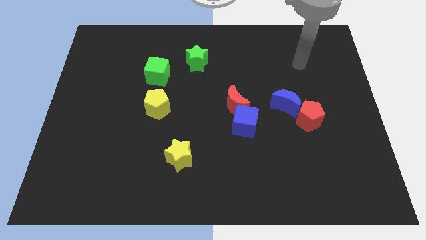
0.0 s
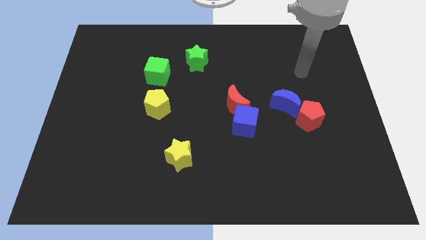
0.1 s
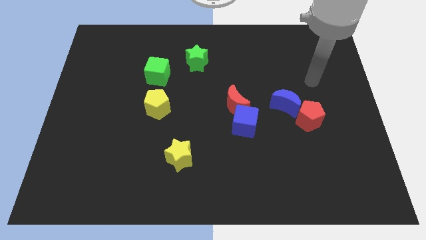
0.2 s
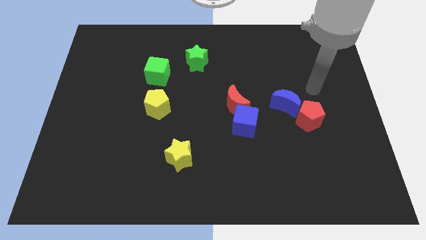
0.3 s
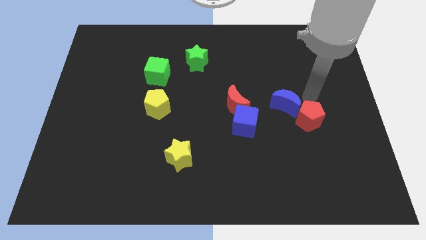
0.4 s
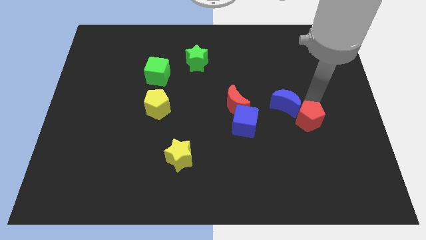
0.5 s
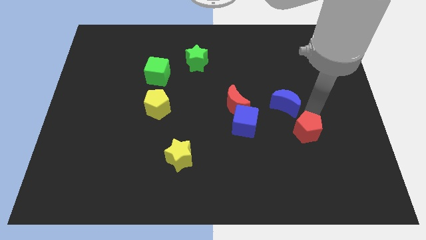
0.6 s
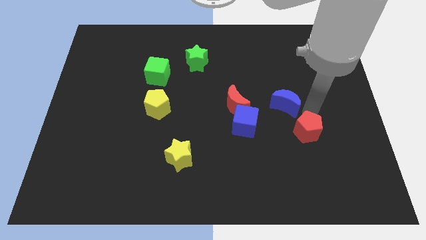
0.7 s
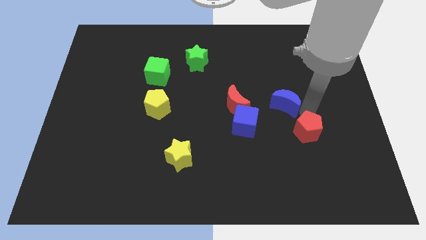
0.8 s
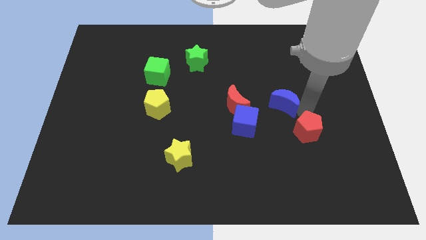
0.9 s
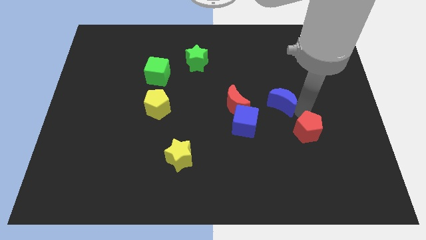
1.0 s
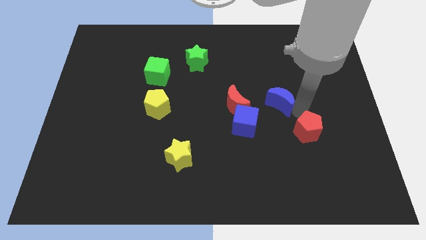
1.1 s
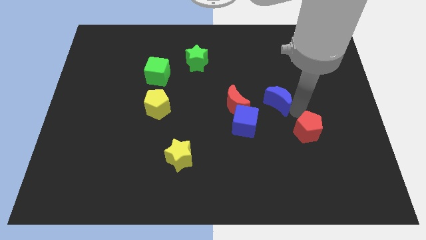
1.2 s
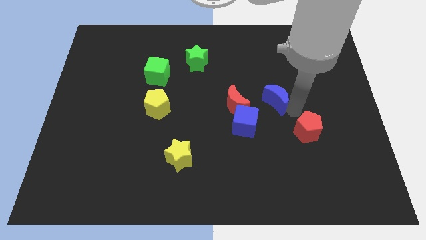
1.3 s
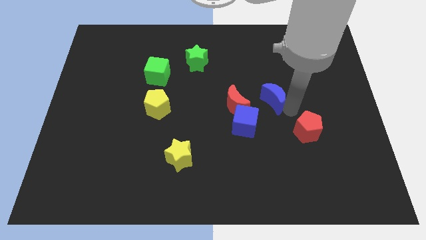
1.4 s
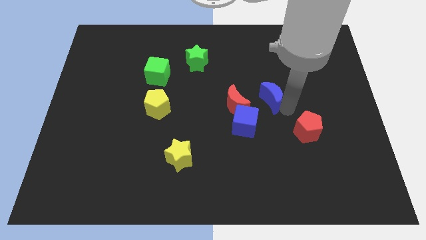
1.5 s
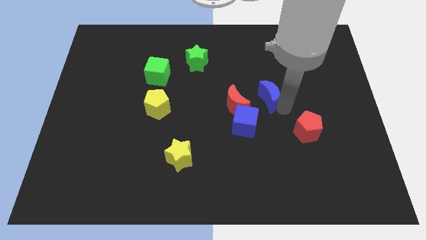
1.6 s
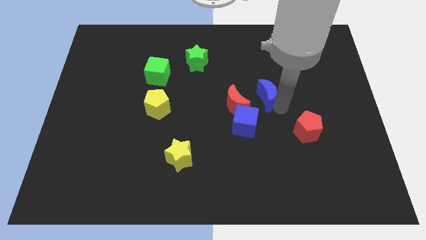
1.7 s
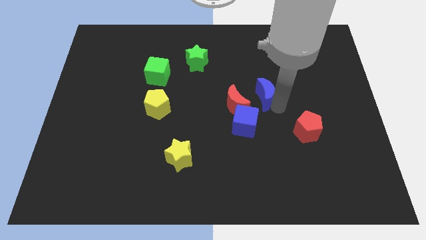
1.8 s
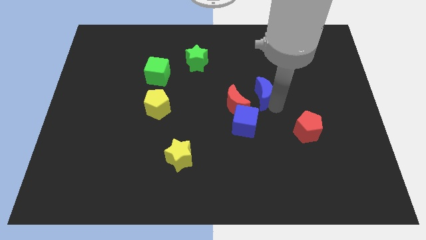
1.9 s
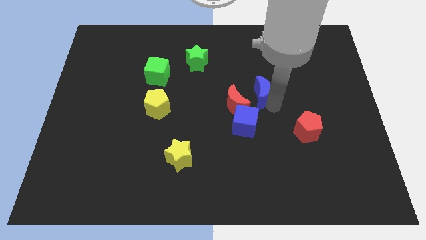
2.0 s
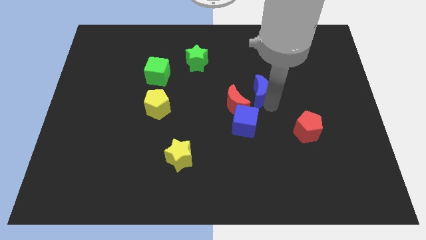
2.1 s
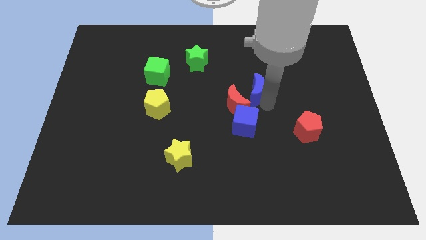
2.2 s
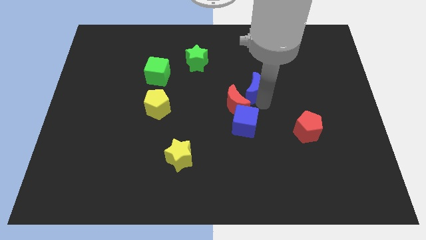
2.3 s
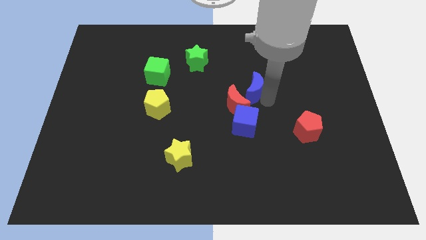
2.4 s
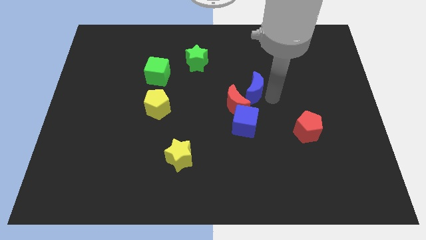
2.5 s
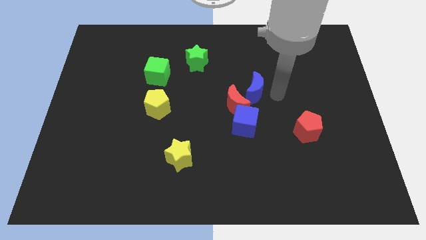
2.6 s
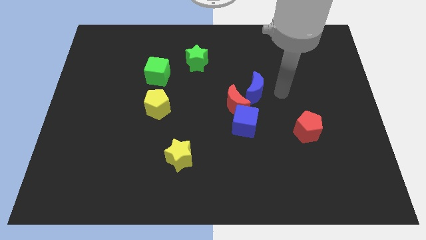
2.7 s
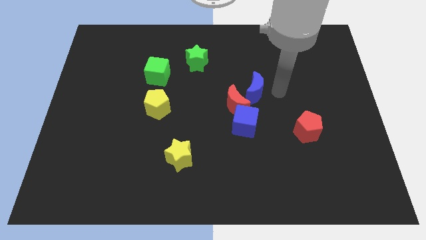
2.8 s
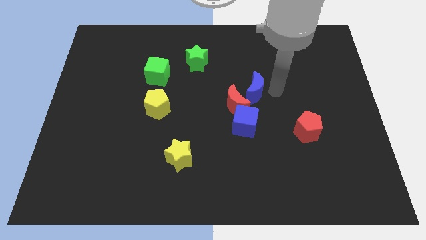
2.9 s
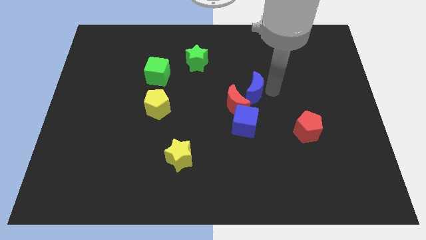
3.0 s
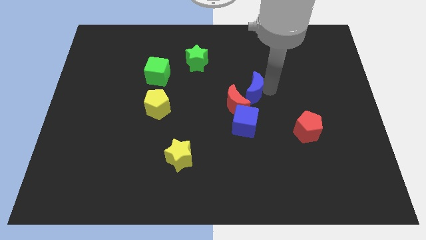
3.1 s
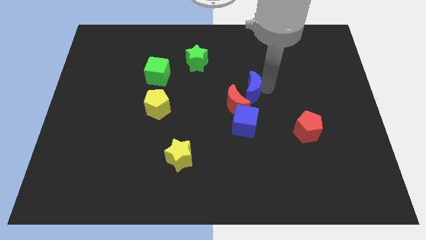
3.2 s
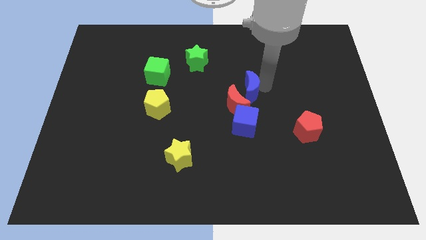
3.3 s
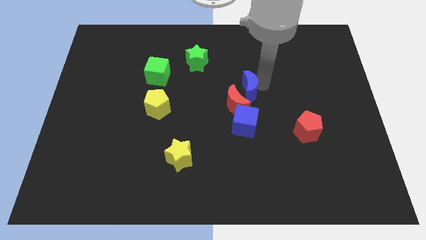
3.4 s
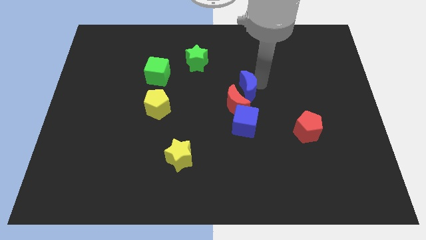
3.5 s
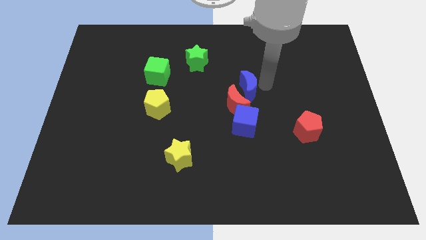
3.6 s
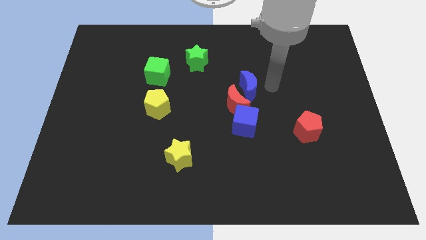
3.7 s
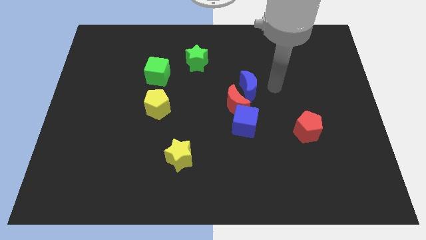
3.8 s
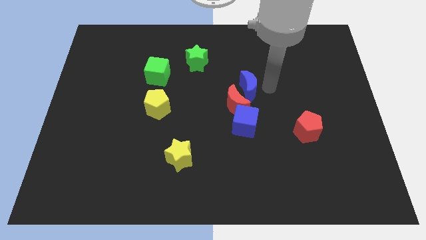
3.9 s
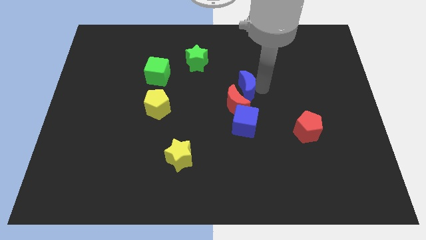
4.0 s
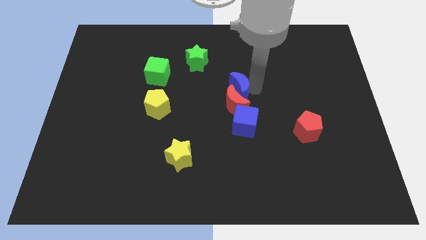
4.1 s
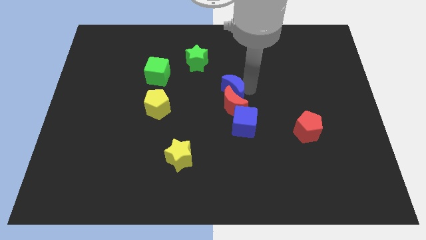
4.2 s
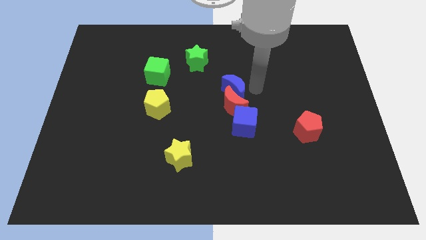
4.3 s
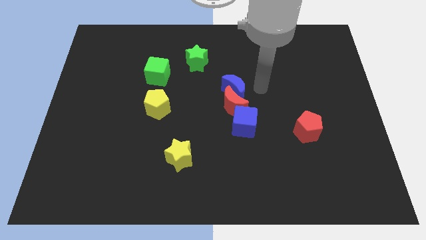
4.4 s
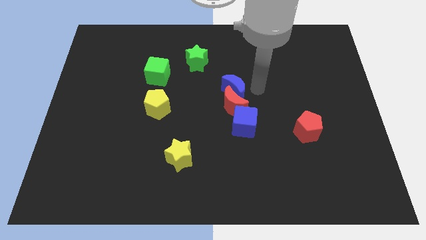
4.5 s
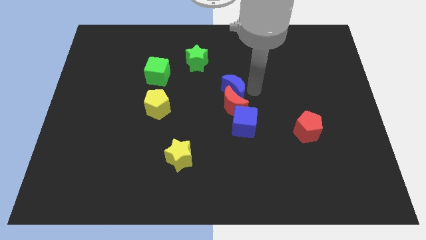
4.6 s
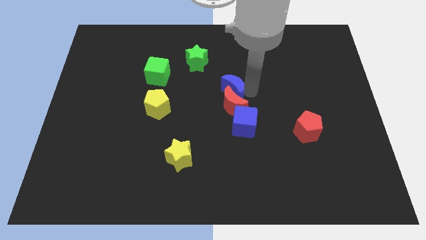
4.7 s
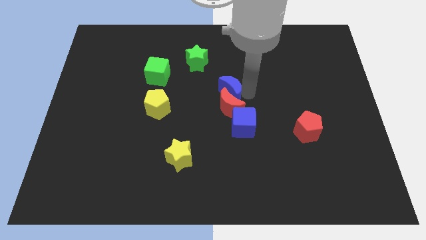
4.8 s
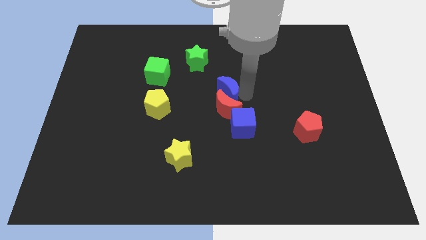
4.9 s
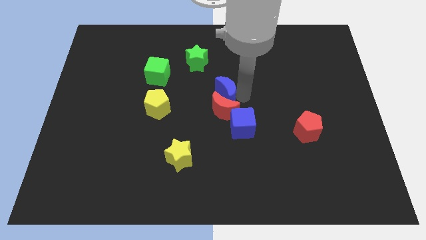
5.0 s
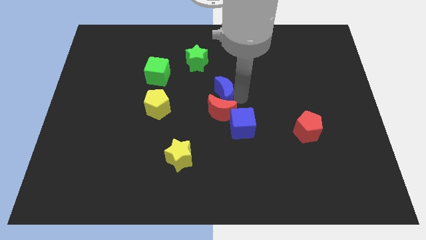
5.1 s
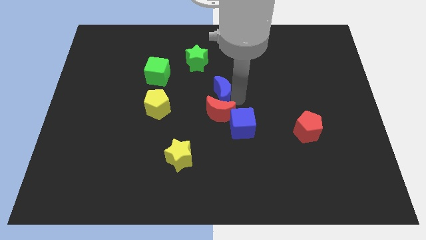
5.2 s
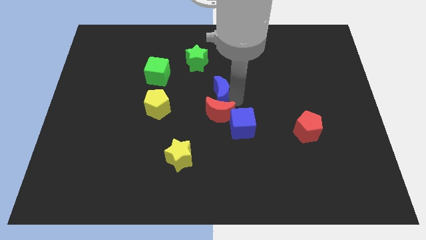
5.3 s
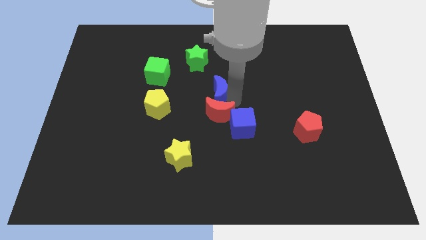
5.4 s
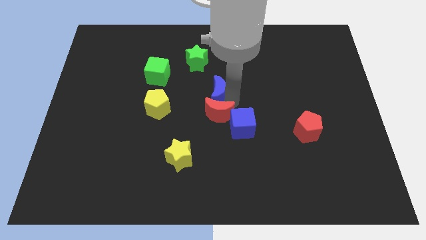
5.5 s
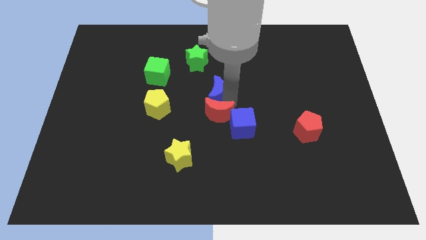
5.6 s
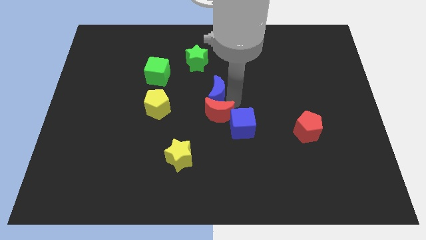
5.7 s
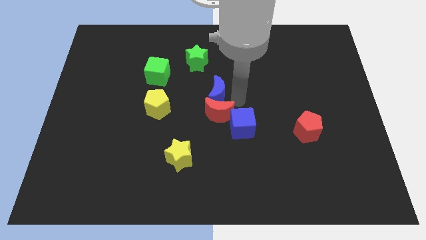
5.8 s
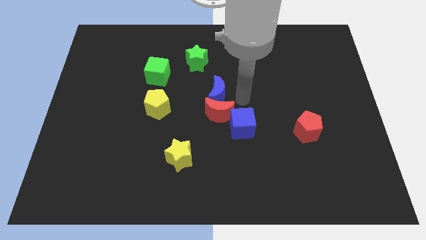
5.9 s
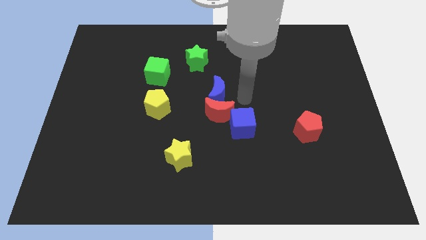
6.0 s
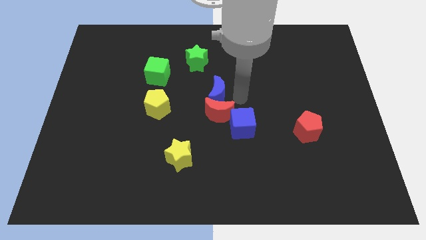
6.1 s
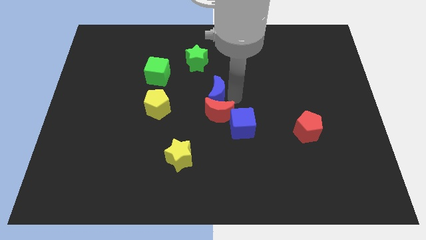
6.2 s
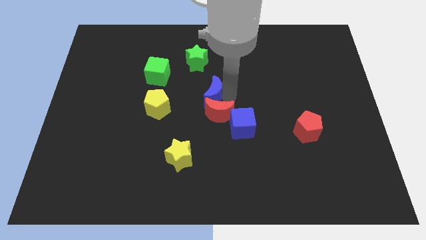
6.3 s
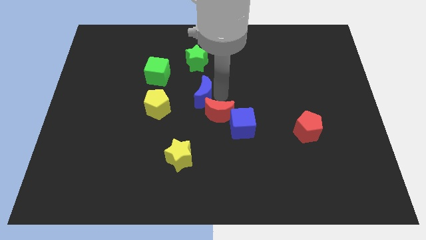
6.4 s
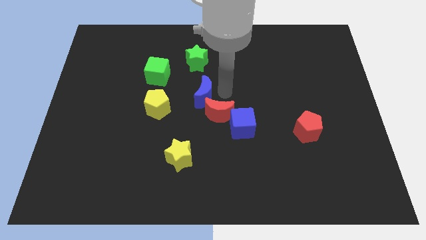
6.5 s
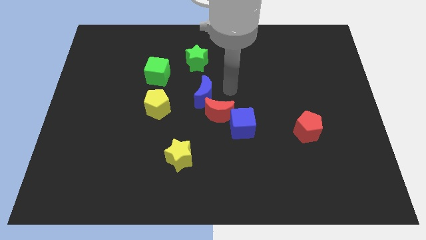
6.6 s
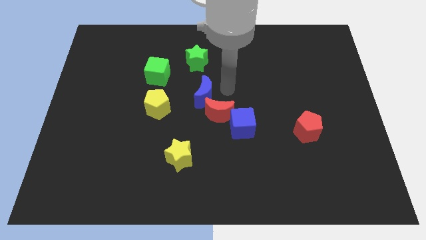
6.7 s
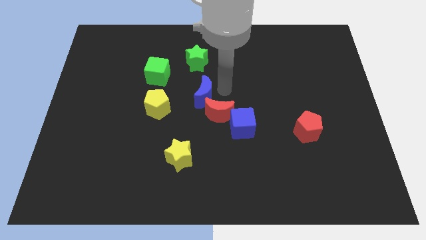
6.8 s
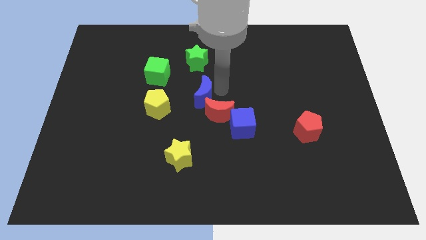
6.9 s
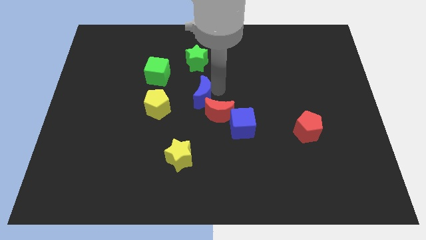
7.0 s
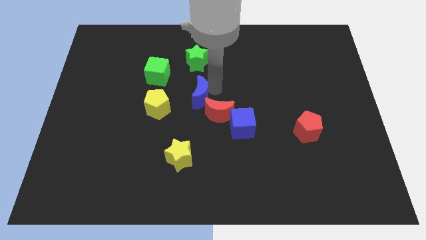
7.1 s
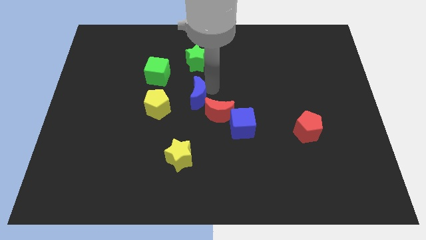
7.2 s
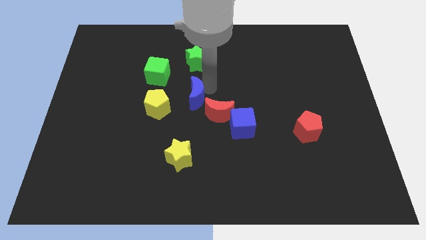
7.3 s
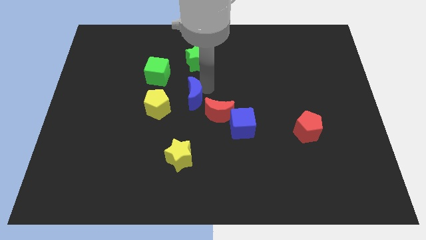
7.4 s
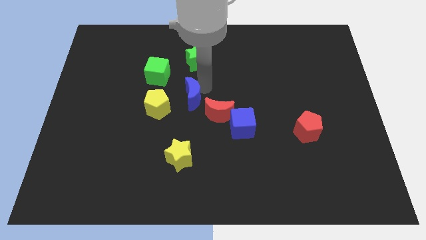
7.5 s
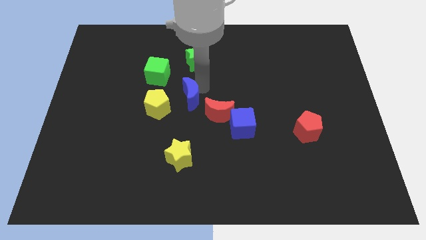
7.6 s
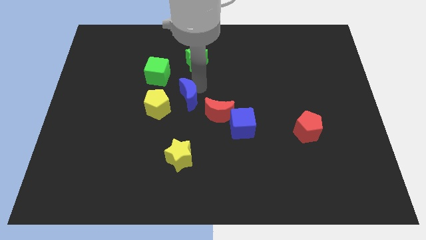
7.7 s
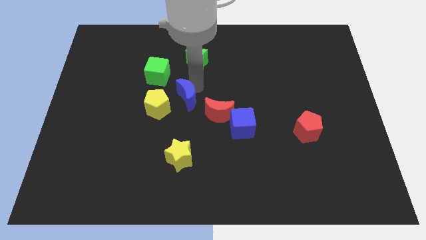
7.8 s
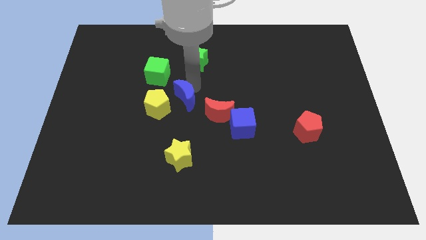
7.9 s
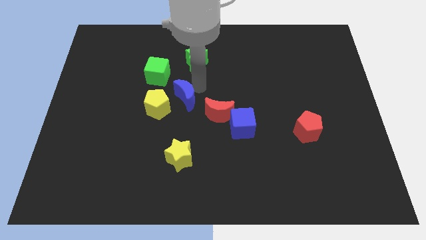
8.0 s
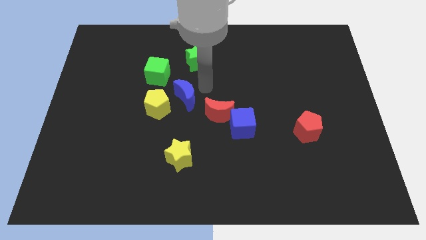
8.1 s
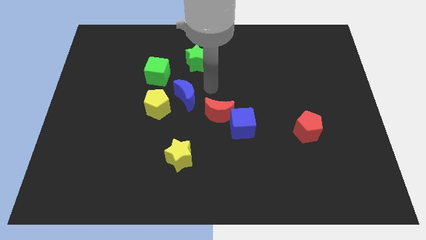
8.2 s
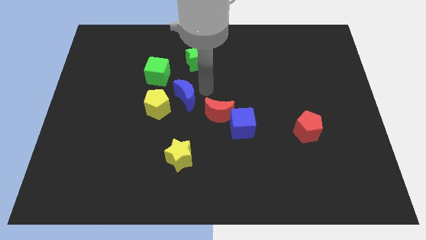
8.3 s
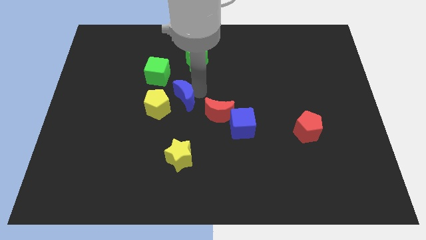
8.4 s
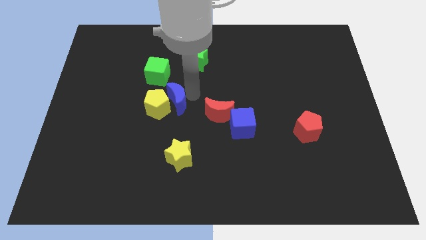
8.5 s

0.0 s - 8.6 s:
push the blue moon towards the yellow pentagon
